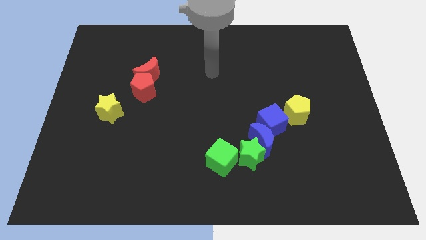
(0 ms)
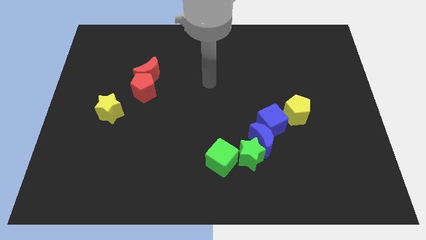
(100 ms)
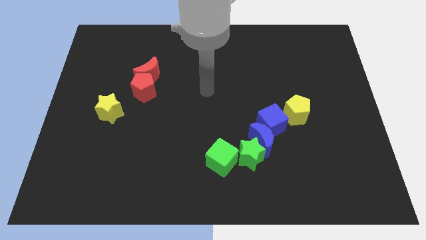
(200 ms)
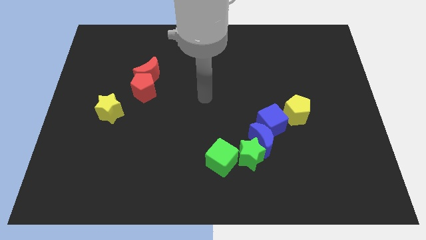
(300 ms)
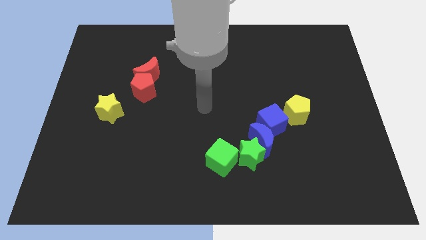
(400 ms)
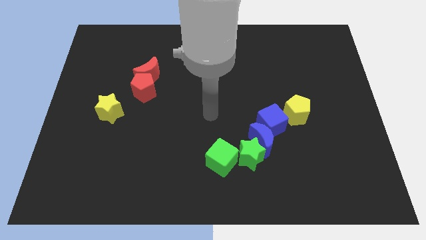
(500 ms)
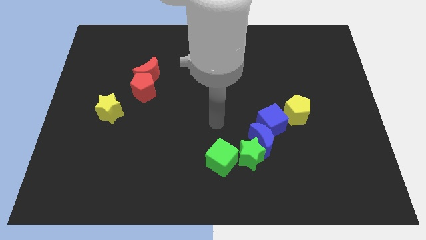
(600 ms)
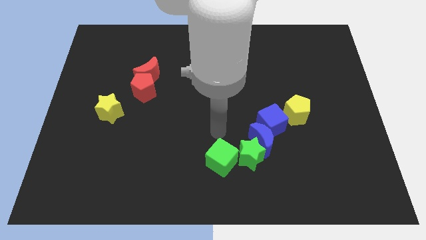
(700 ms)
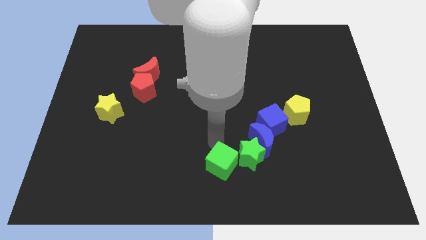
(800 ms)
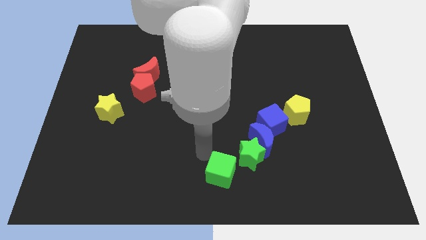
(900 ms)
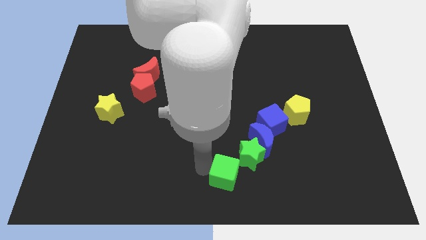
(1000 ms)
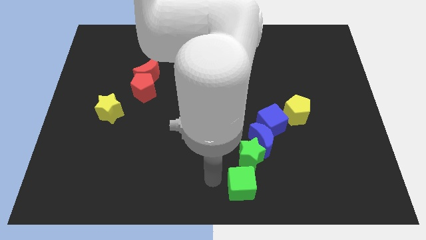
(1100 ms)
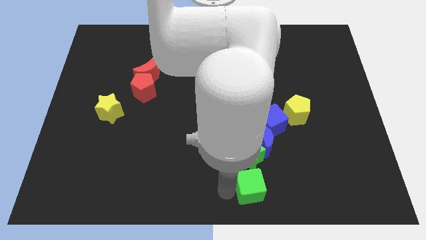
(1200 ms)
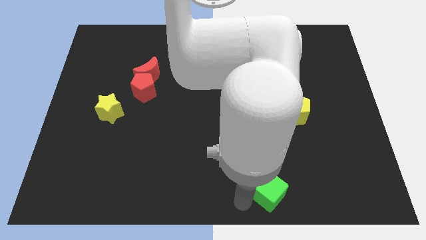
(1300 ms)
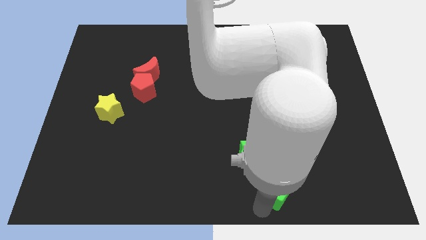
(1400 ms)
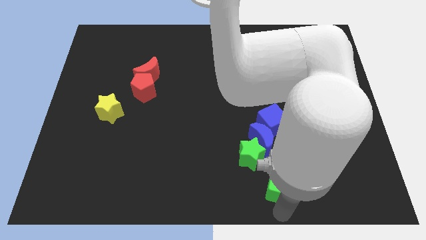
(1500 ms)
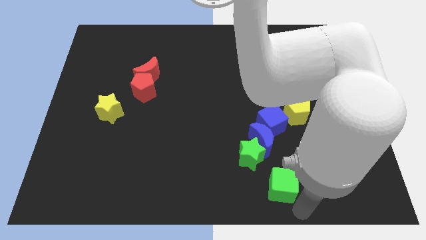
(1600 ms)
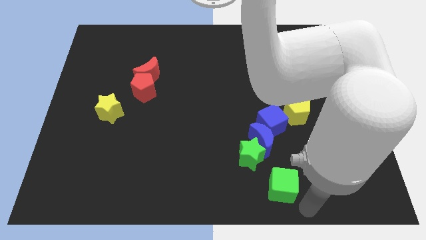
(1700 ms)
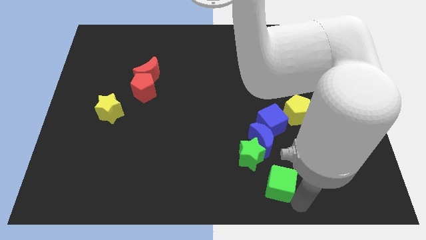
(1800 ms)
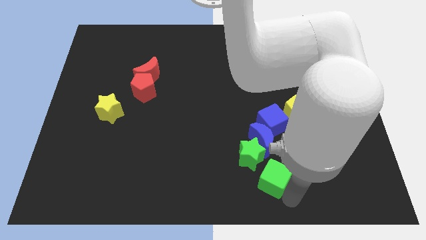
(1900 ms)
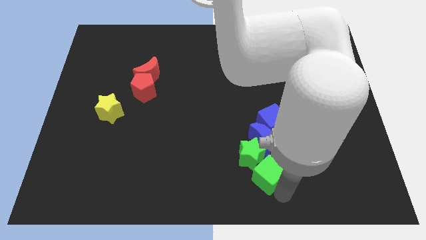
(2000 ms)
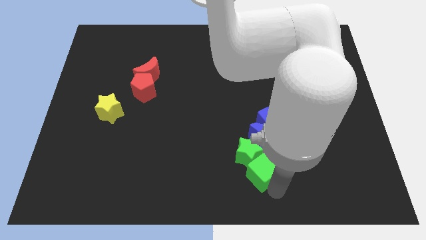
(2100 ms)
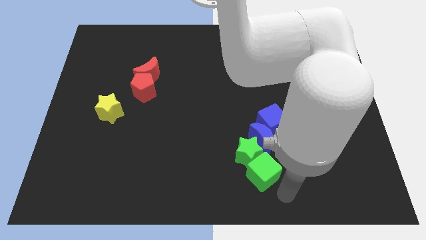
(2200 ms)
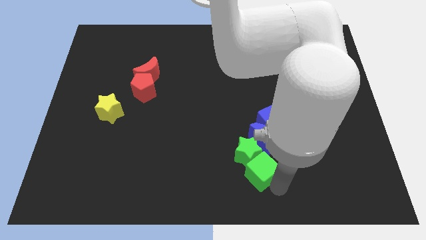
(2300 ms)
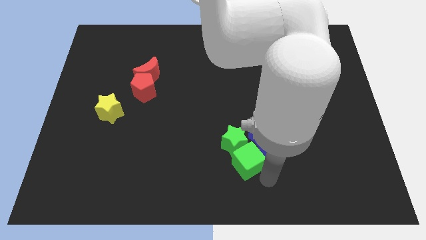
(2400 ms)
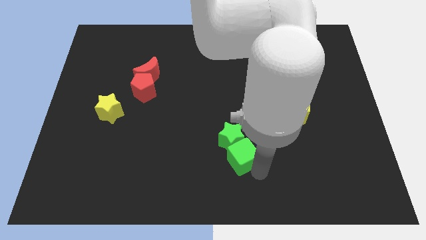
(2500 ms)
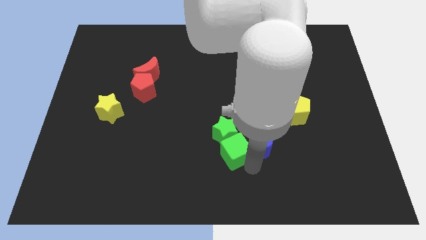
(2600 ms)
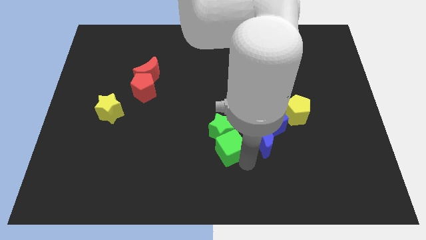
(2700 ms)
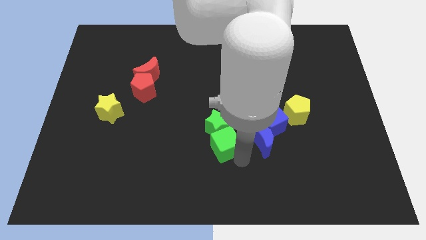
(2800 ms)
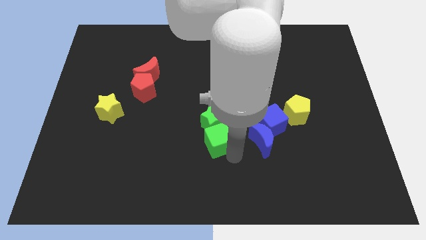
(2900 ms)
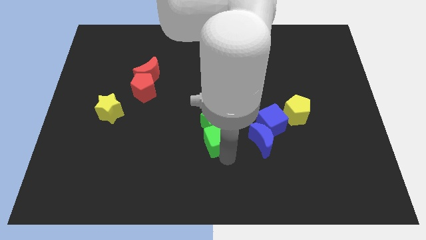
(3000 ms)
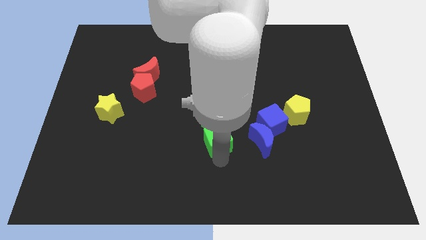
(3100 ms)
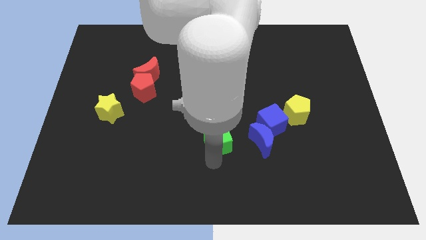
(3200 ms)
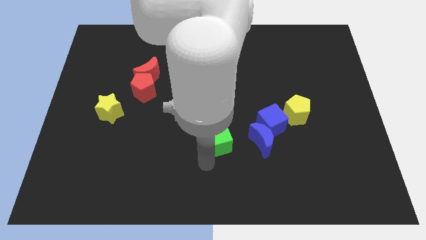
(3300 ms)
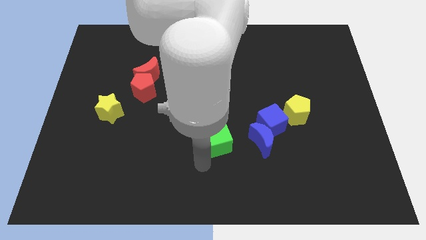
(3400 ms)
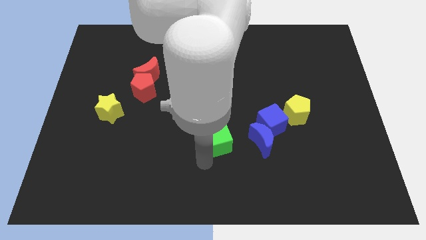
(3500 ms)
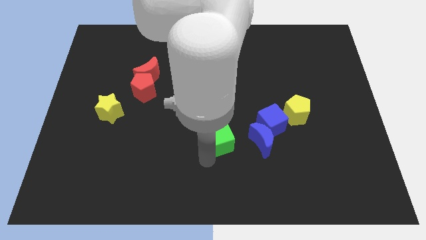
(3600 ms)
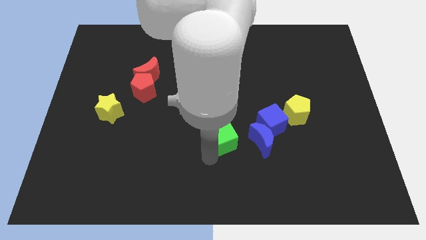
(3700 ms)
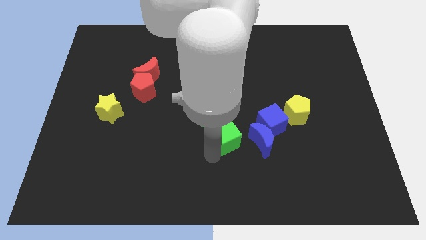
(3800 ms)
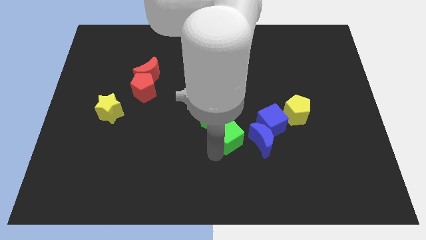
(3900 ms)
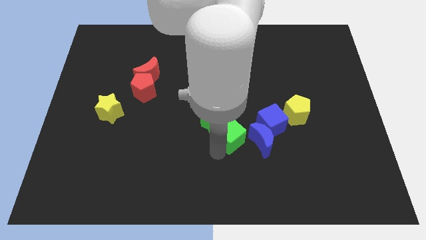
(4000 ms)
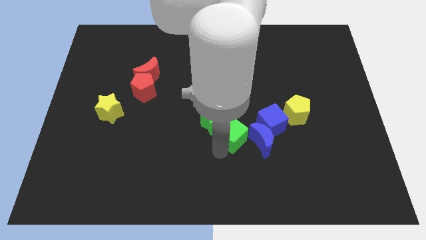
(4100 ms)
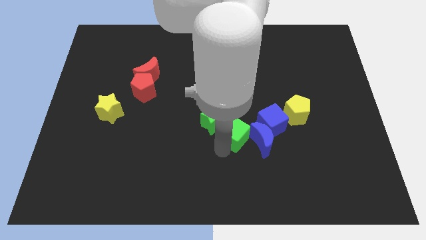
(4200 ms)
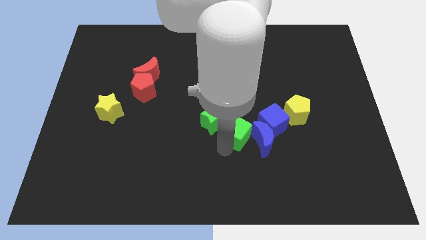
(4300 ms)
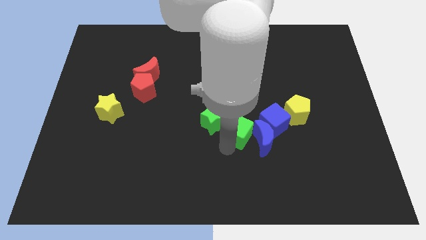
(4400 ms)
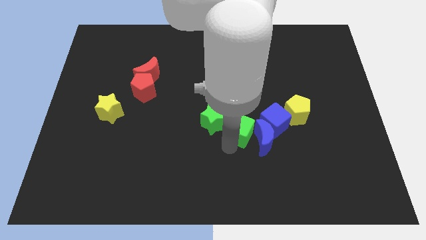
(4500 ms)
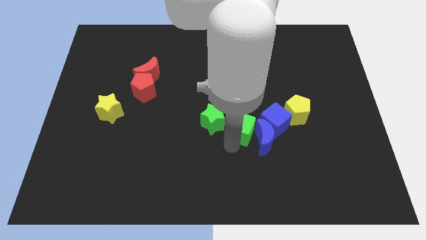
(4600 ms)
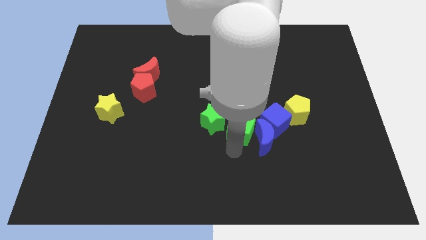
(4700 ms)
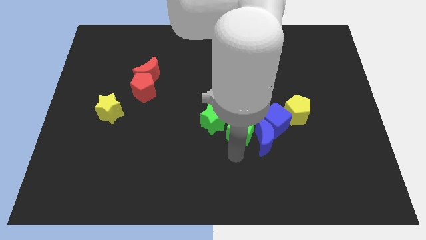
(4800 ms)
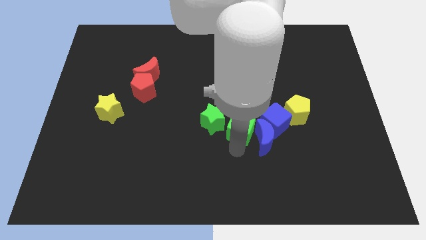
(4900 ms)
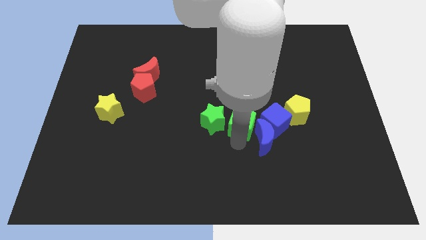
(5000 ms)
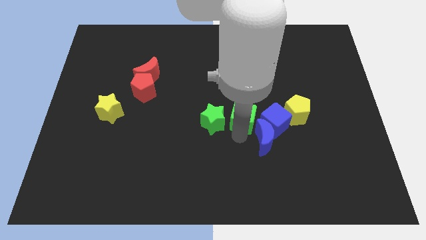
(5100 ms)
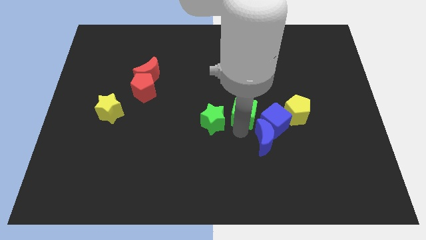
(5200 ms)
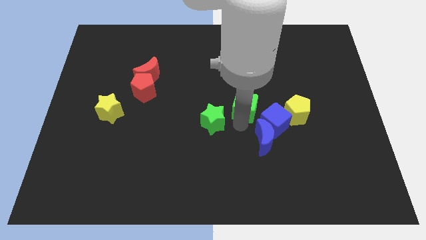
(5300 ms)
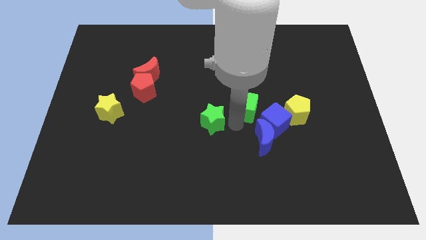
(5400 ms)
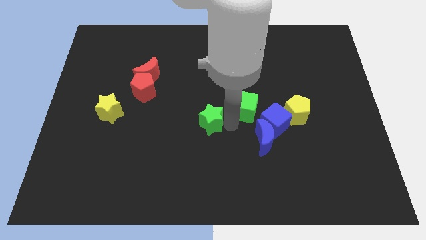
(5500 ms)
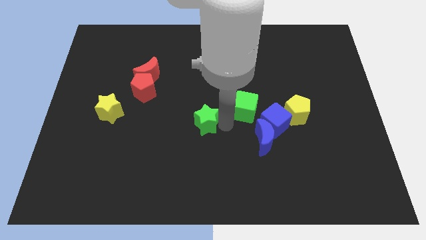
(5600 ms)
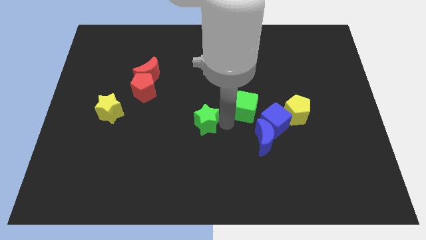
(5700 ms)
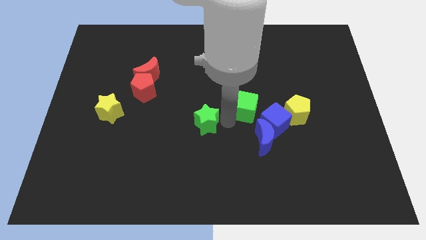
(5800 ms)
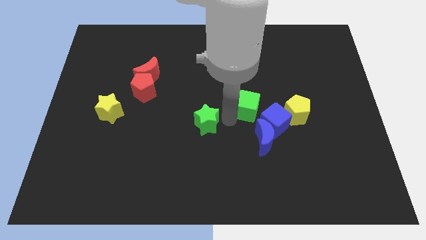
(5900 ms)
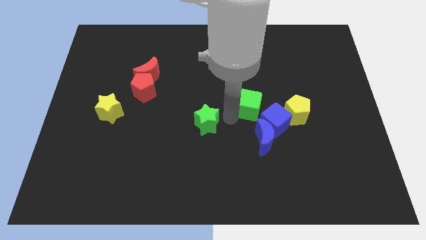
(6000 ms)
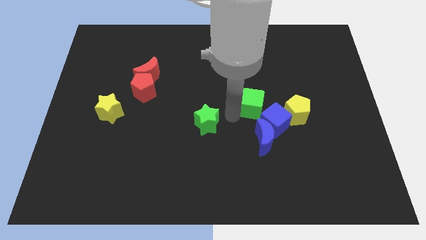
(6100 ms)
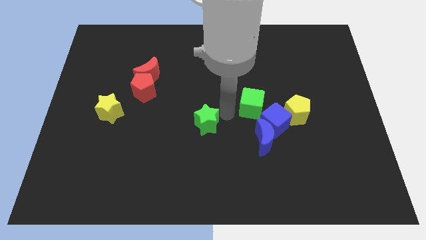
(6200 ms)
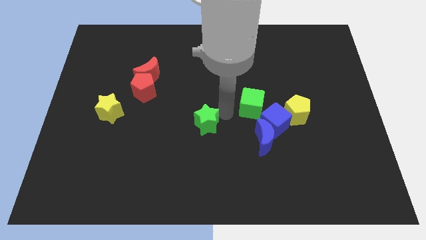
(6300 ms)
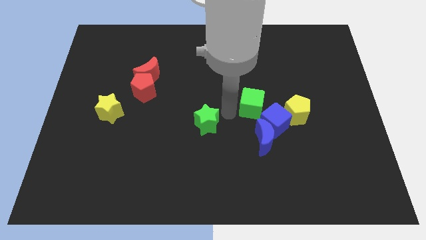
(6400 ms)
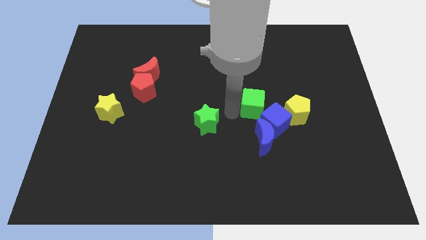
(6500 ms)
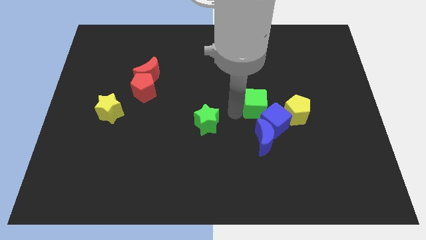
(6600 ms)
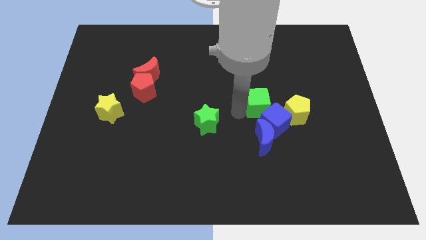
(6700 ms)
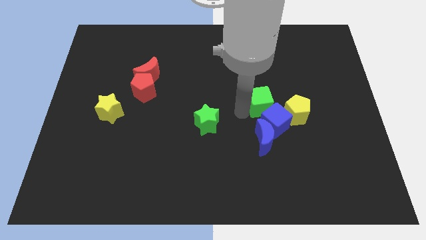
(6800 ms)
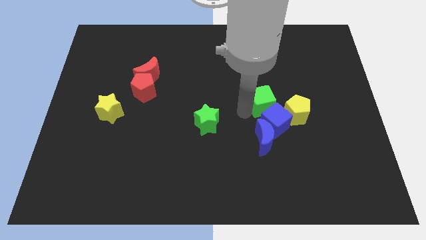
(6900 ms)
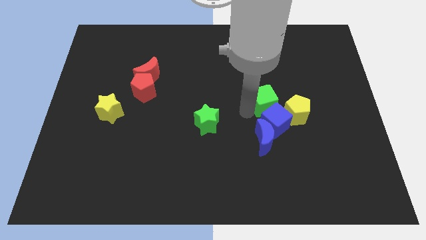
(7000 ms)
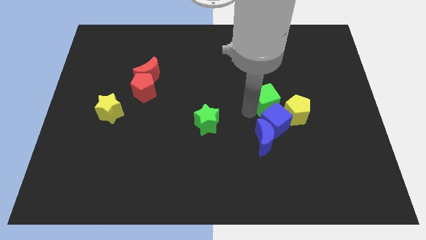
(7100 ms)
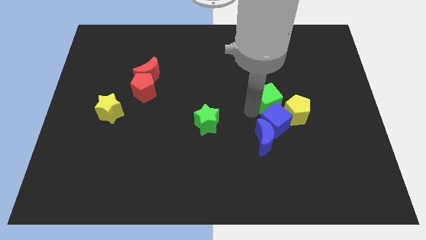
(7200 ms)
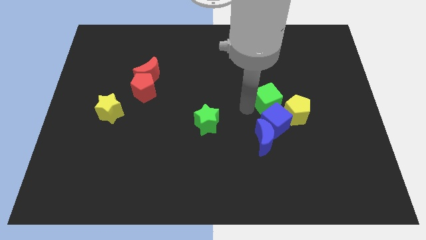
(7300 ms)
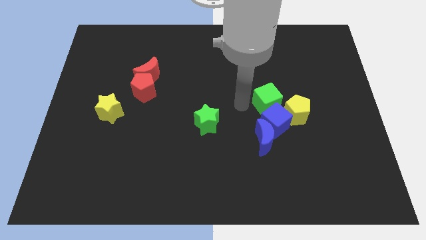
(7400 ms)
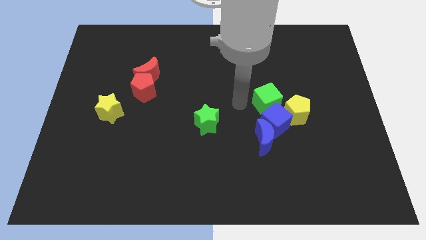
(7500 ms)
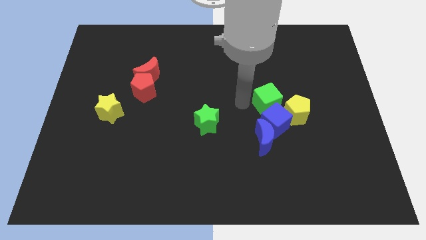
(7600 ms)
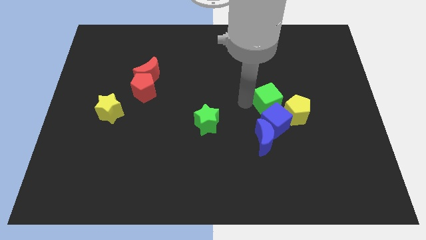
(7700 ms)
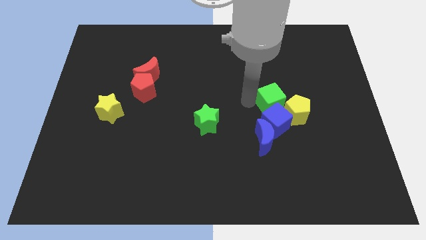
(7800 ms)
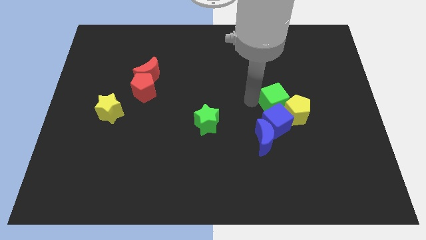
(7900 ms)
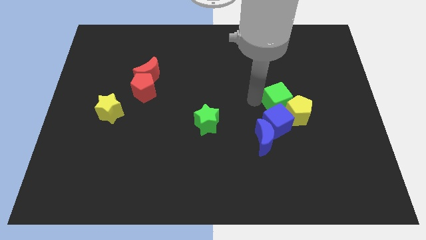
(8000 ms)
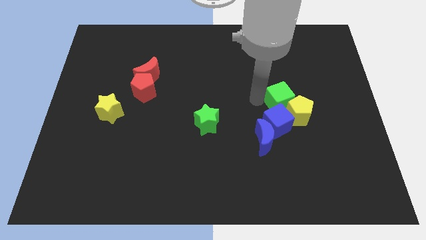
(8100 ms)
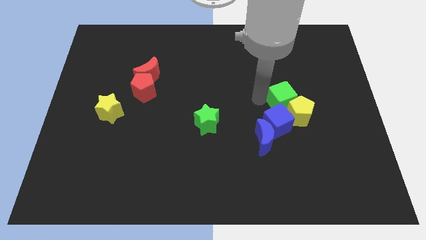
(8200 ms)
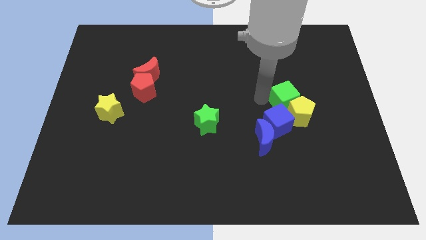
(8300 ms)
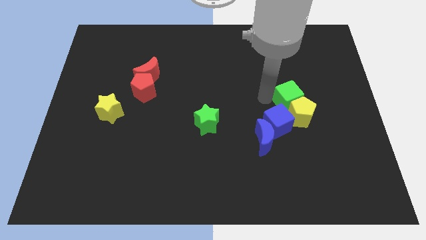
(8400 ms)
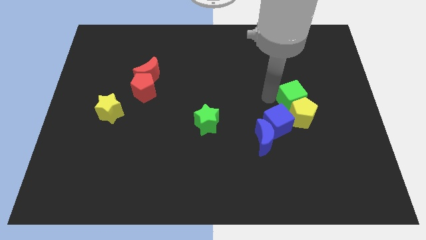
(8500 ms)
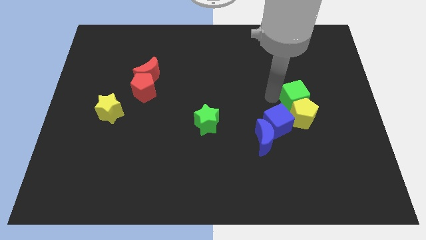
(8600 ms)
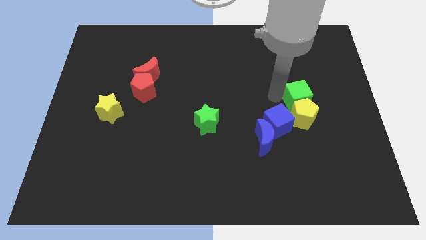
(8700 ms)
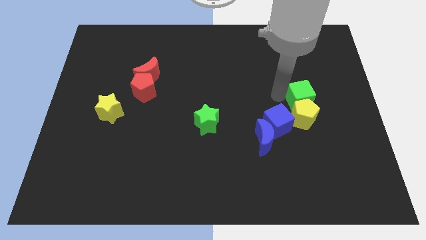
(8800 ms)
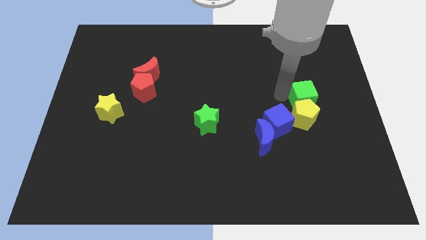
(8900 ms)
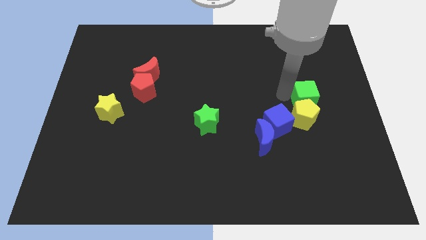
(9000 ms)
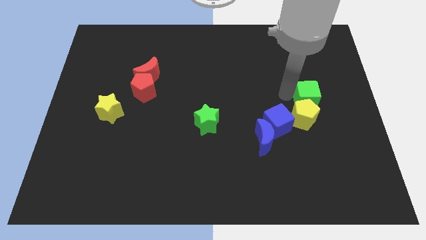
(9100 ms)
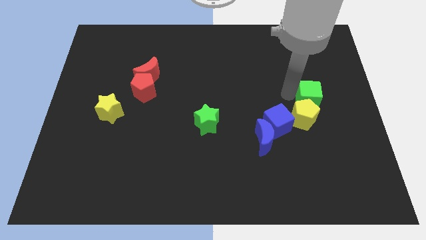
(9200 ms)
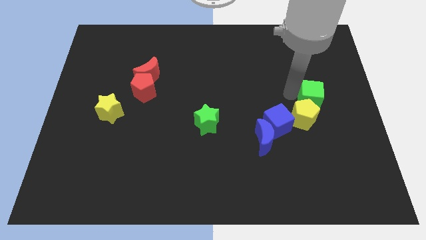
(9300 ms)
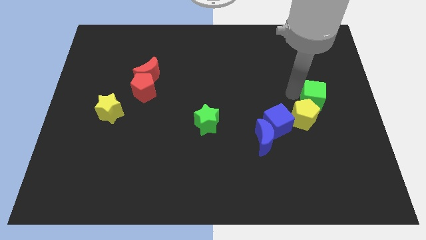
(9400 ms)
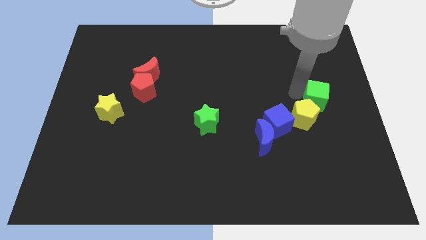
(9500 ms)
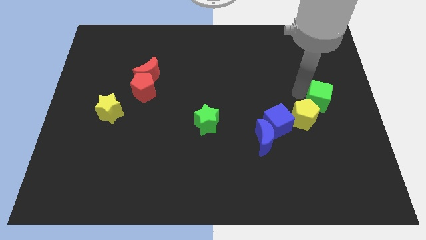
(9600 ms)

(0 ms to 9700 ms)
move the green cube to the right side of the board
